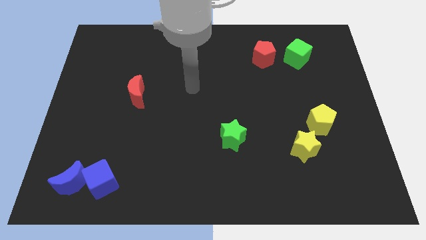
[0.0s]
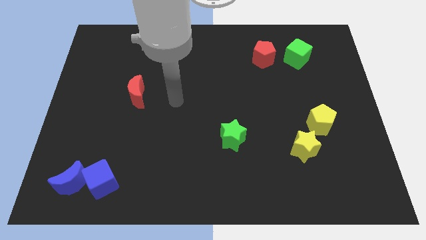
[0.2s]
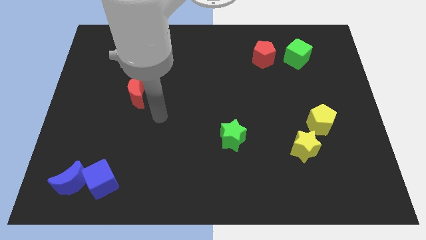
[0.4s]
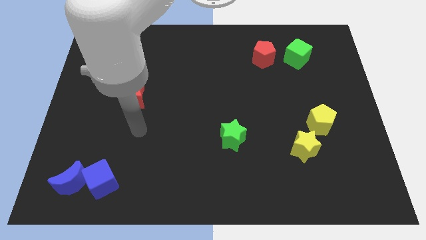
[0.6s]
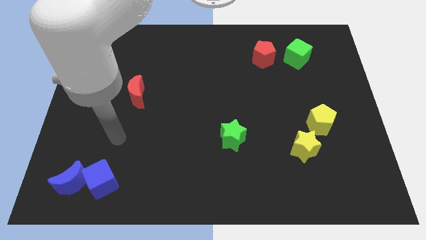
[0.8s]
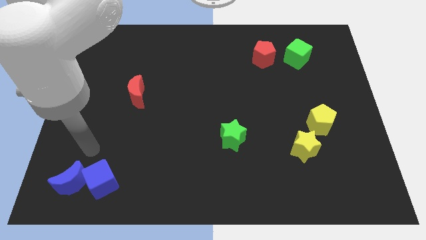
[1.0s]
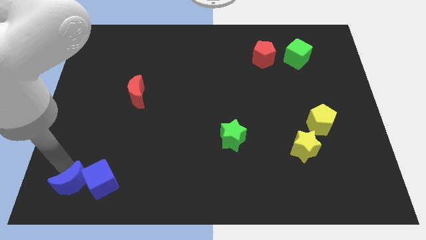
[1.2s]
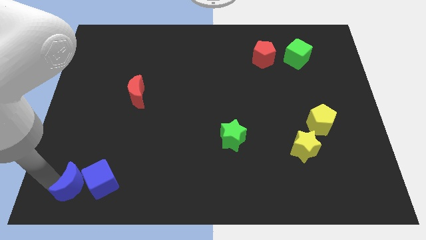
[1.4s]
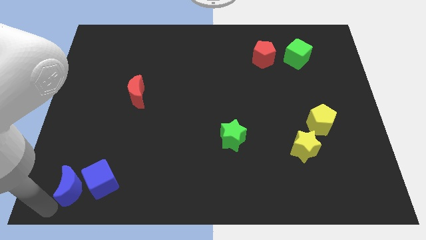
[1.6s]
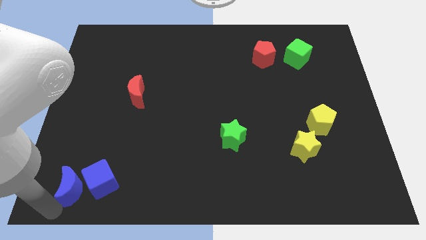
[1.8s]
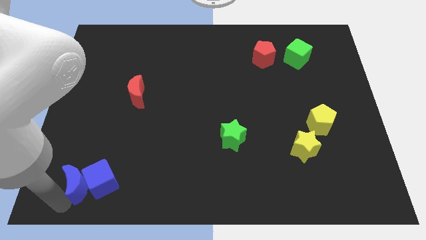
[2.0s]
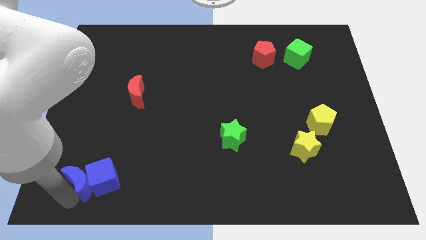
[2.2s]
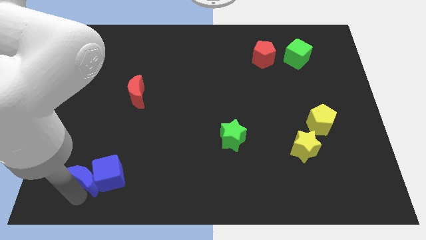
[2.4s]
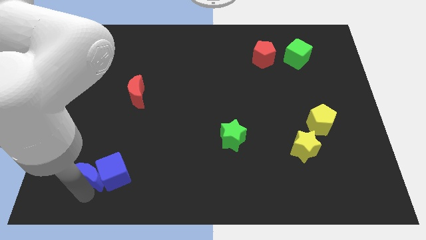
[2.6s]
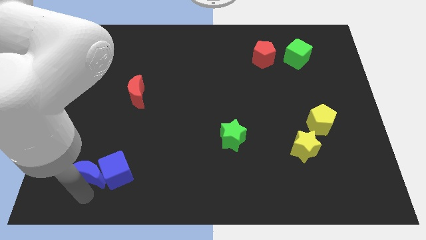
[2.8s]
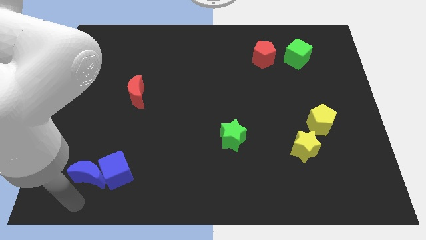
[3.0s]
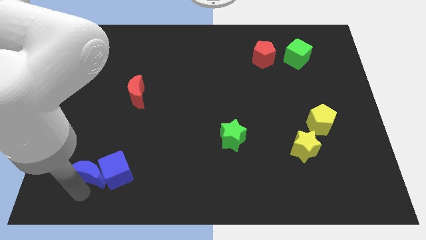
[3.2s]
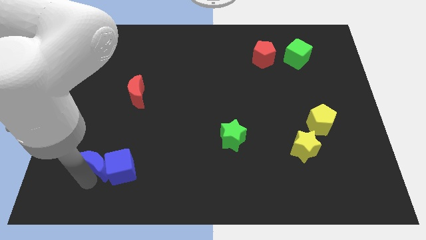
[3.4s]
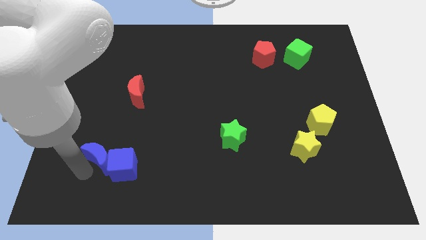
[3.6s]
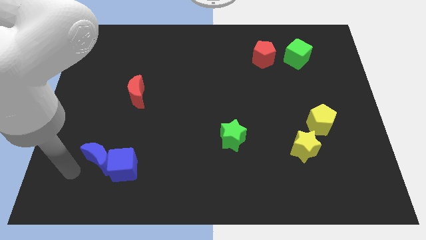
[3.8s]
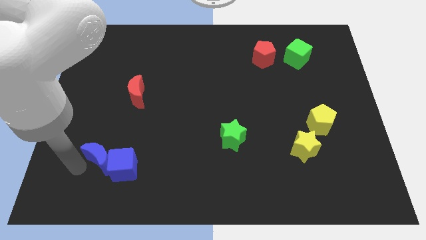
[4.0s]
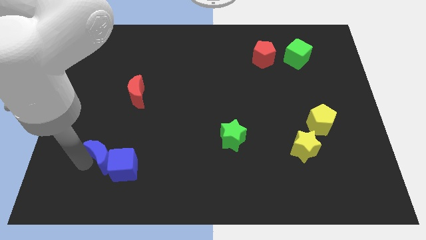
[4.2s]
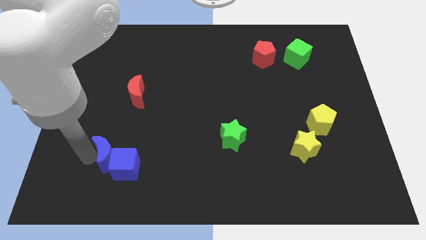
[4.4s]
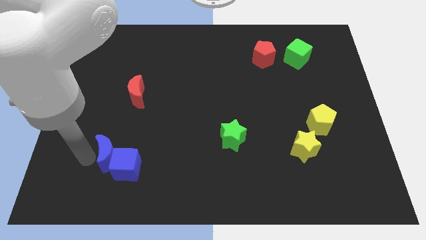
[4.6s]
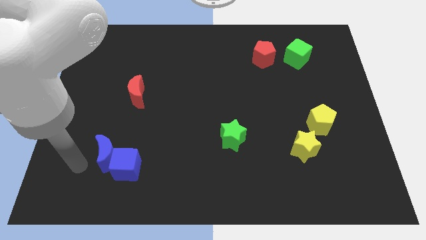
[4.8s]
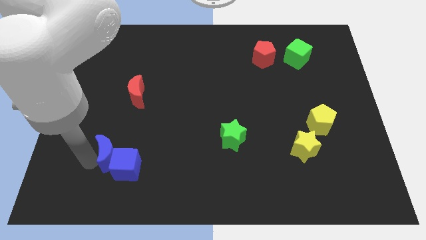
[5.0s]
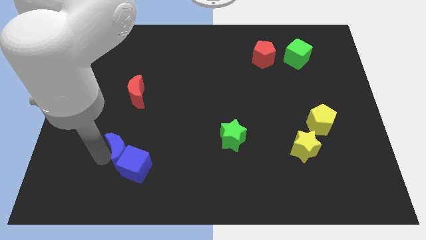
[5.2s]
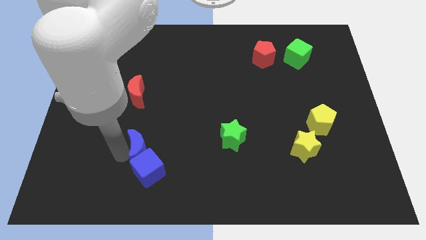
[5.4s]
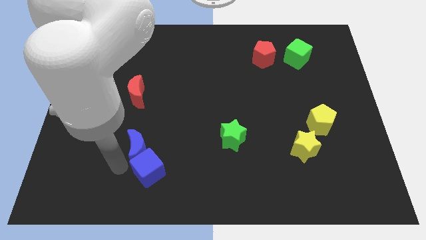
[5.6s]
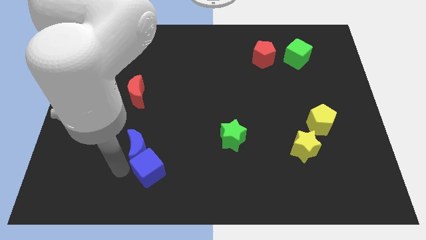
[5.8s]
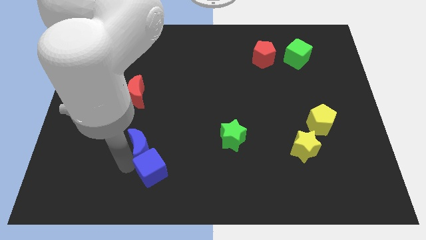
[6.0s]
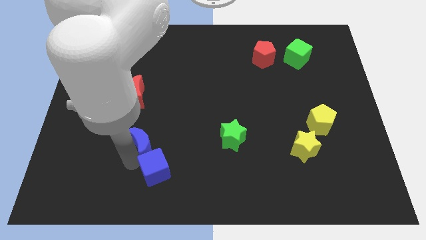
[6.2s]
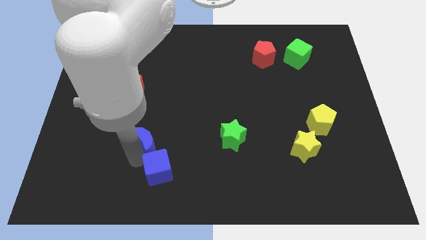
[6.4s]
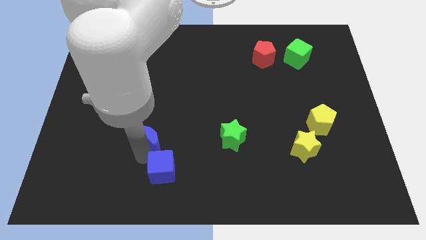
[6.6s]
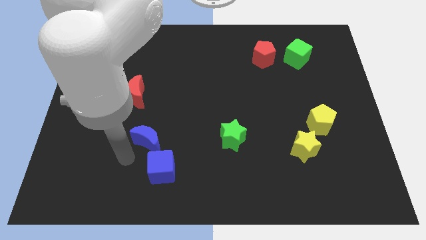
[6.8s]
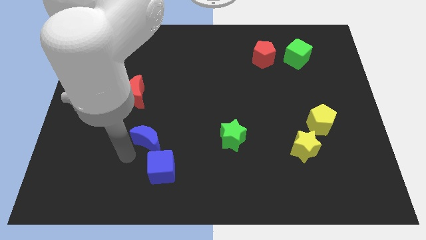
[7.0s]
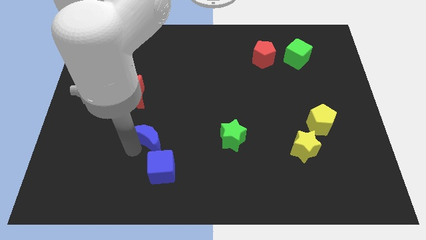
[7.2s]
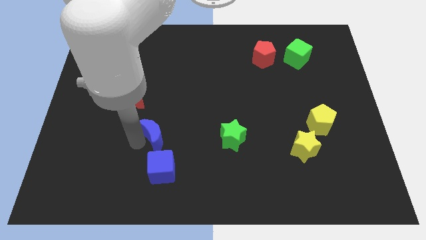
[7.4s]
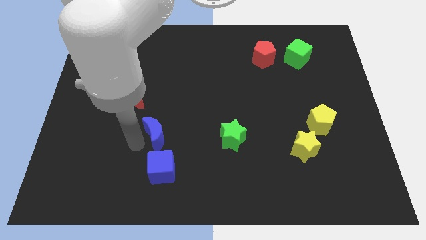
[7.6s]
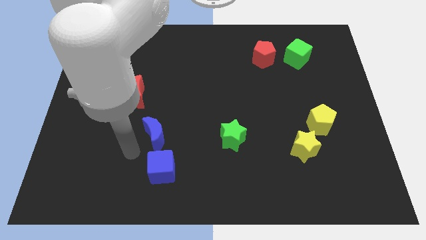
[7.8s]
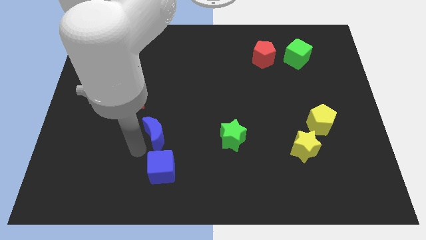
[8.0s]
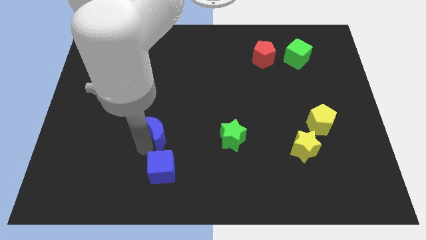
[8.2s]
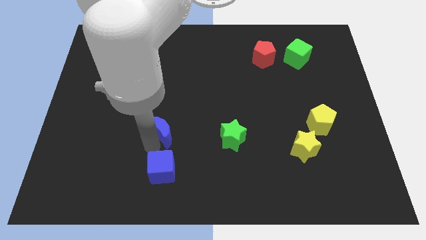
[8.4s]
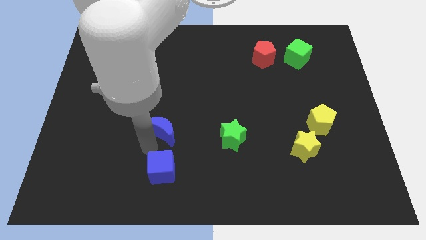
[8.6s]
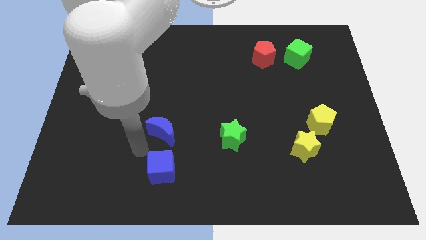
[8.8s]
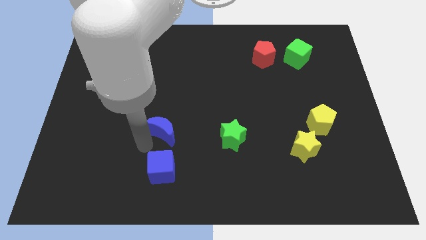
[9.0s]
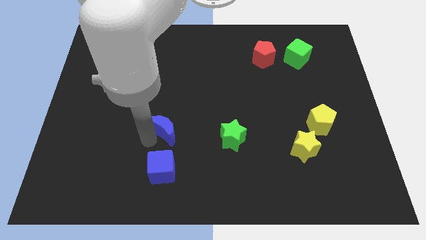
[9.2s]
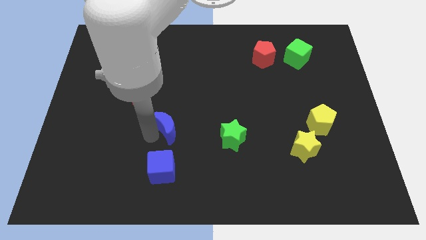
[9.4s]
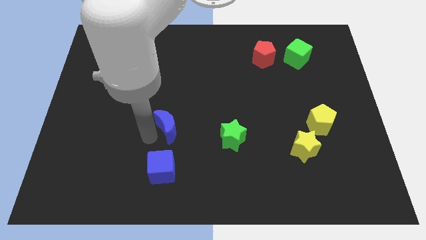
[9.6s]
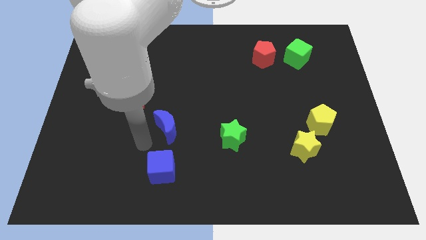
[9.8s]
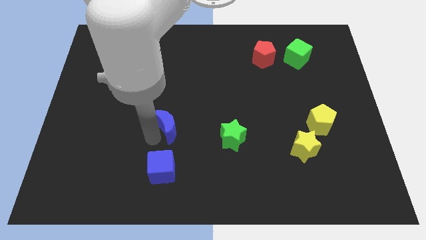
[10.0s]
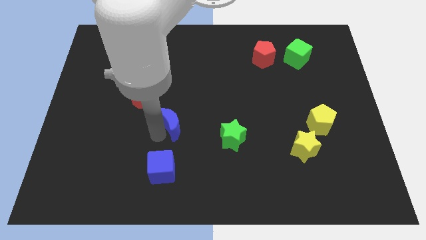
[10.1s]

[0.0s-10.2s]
move the blue moon to the middle of the board

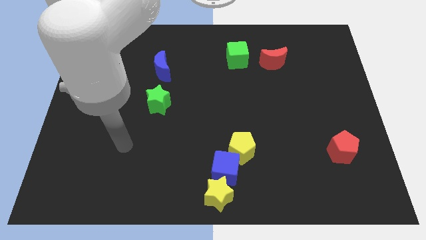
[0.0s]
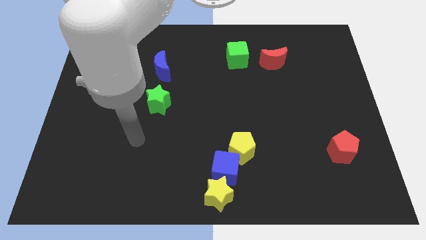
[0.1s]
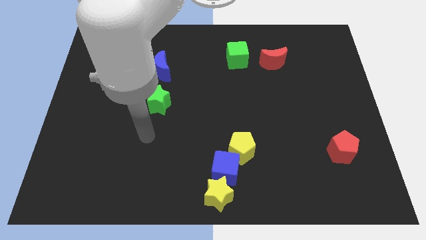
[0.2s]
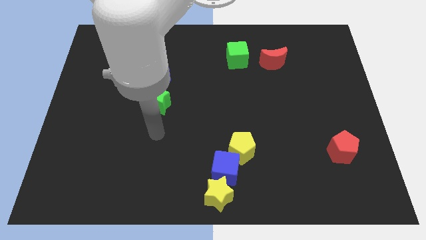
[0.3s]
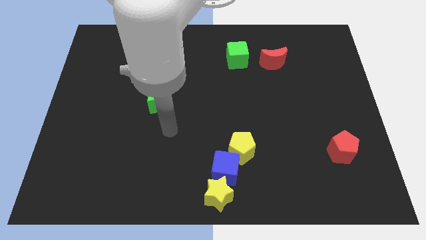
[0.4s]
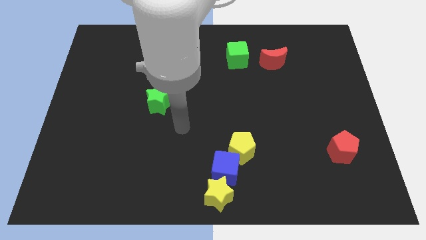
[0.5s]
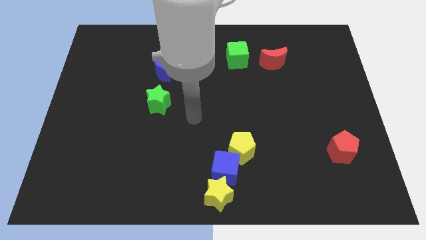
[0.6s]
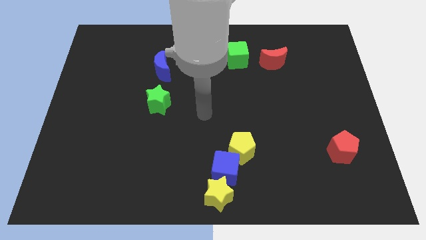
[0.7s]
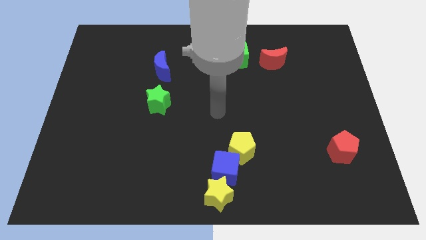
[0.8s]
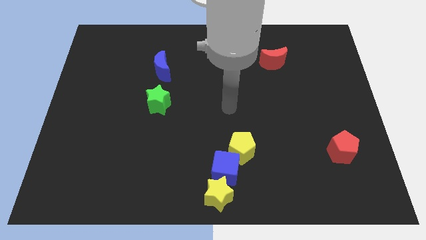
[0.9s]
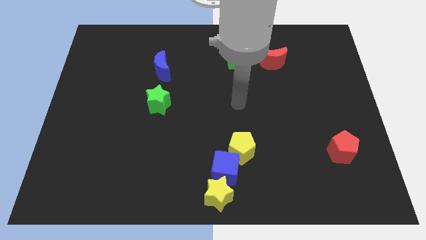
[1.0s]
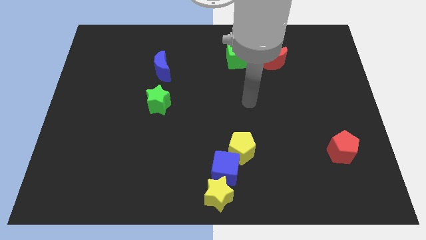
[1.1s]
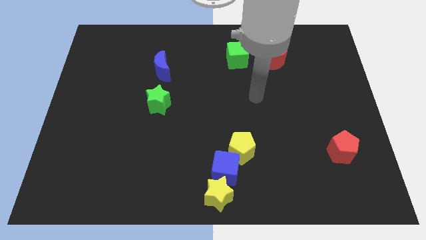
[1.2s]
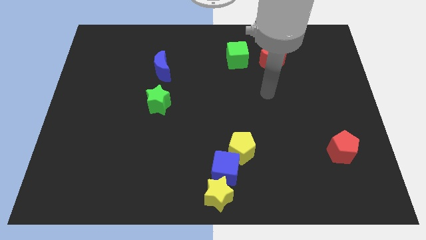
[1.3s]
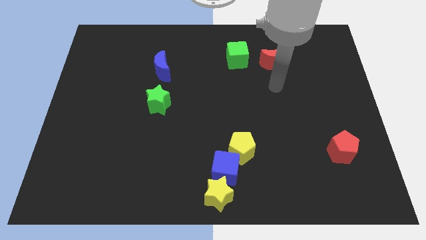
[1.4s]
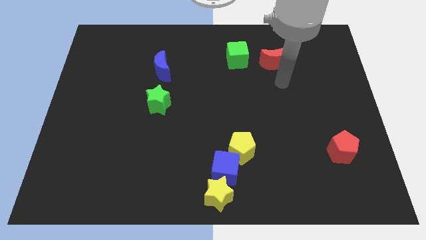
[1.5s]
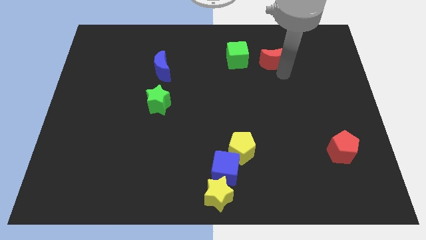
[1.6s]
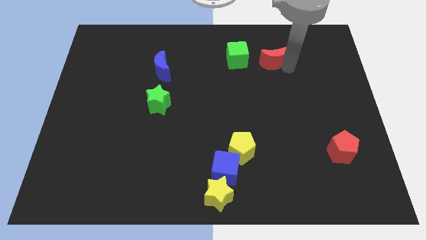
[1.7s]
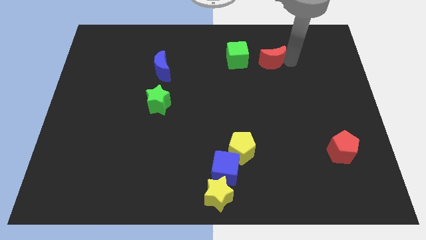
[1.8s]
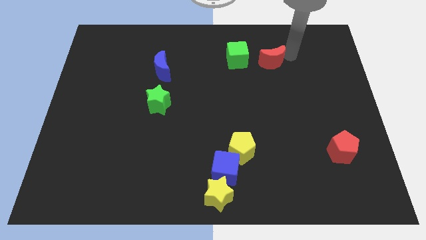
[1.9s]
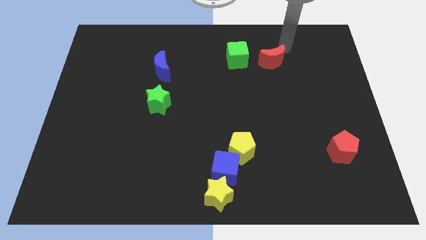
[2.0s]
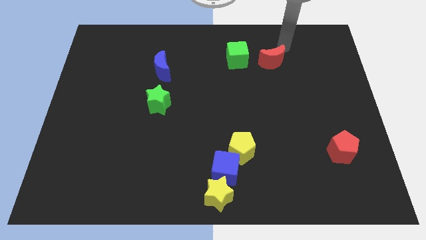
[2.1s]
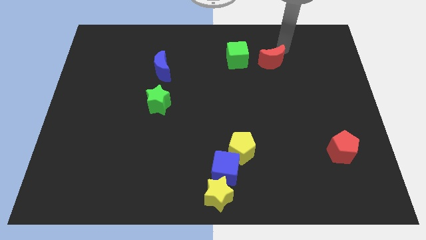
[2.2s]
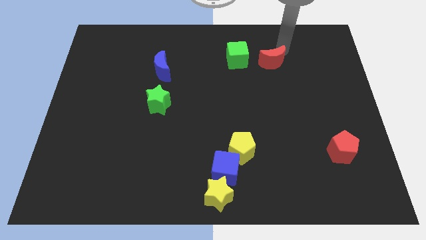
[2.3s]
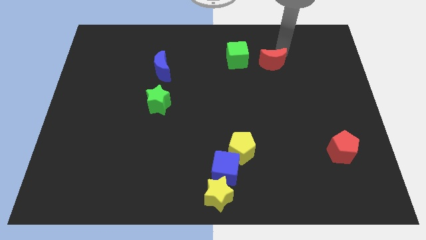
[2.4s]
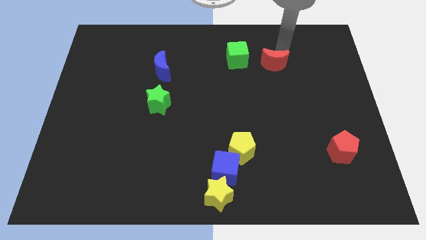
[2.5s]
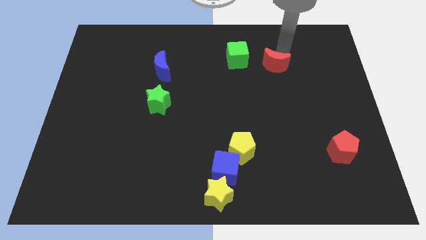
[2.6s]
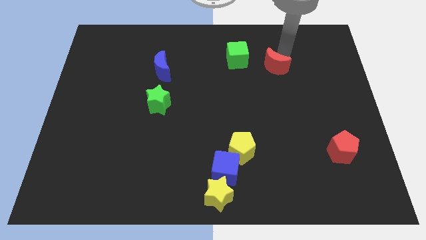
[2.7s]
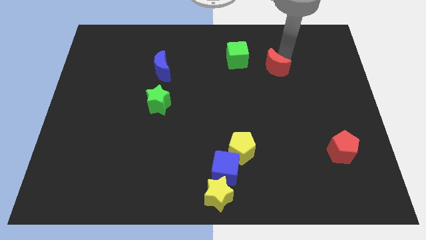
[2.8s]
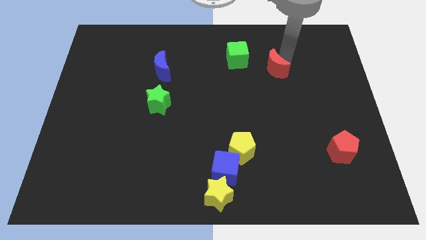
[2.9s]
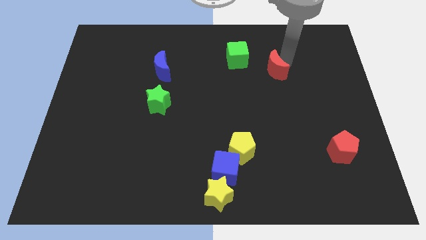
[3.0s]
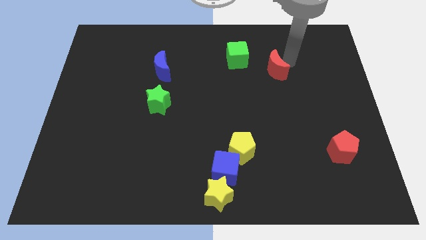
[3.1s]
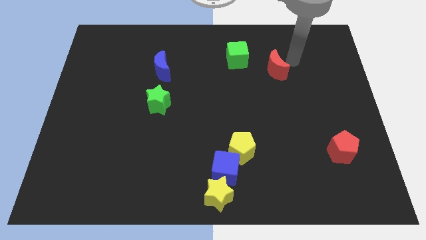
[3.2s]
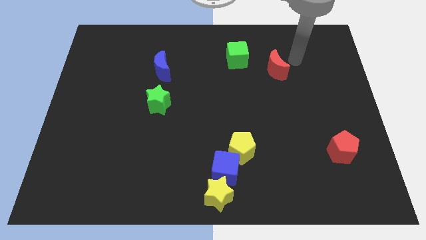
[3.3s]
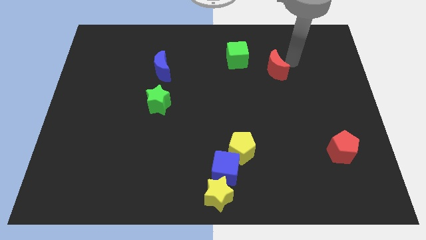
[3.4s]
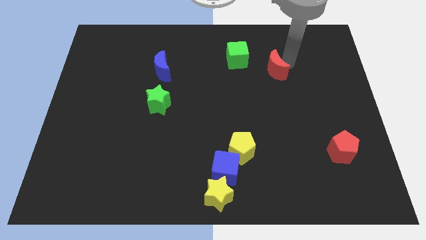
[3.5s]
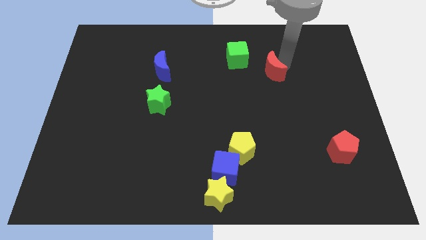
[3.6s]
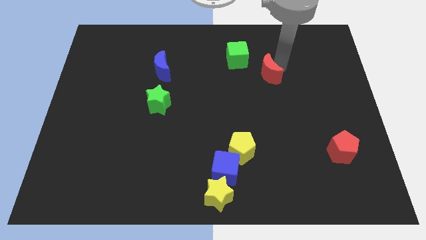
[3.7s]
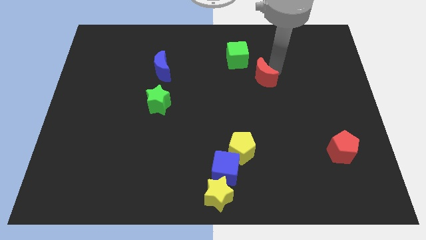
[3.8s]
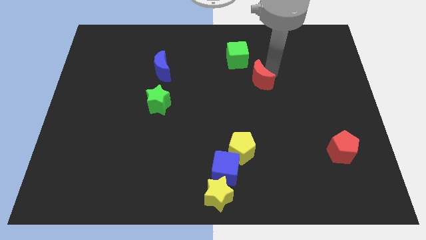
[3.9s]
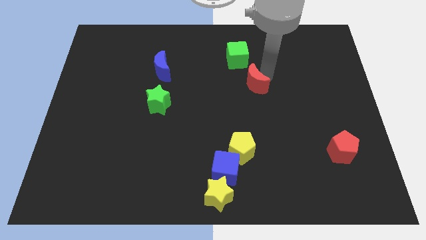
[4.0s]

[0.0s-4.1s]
push the red moon to the middle of the board
